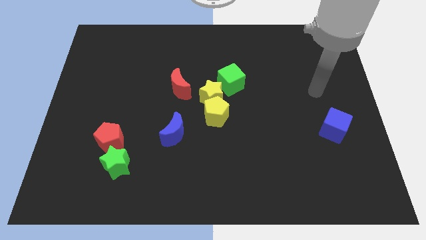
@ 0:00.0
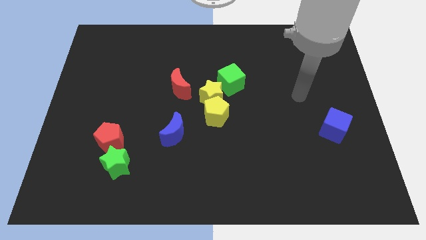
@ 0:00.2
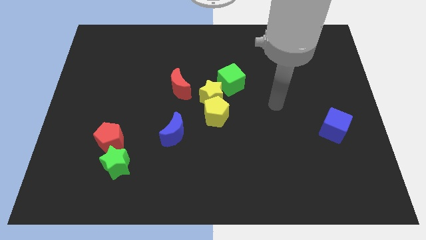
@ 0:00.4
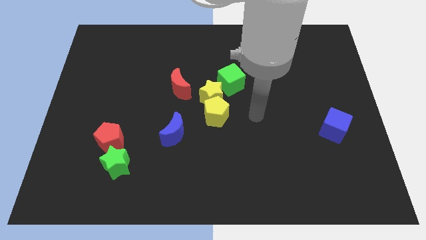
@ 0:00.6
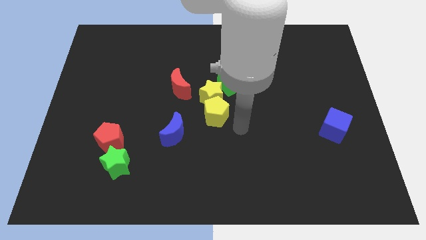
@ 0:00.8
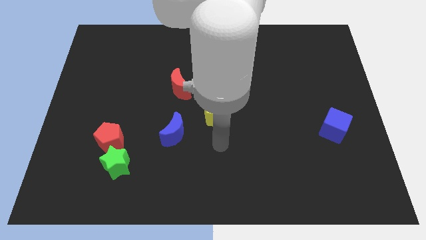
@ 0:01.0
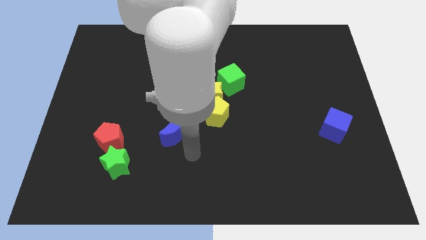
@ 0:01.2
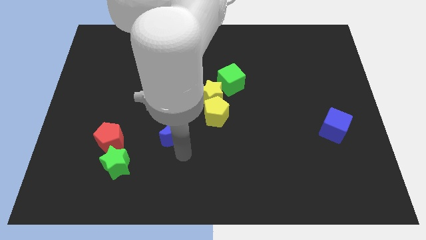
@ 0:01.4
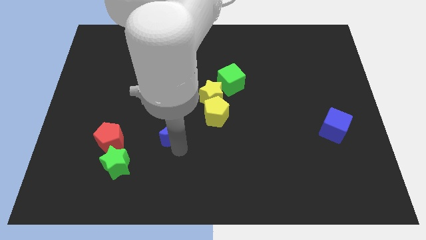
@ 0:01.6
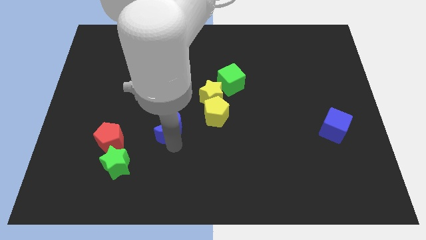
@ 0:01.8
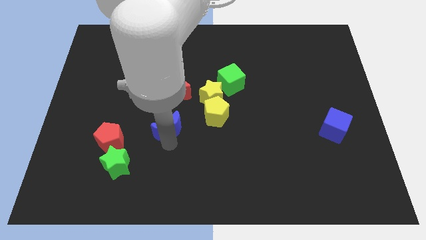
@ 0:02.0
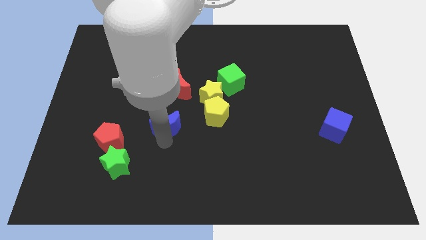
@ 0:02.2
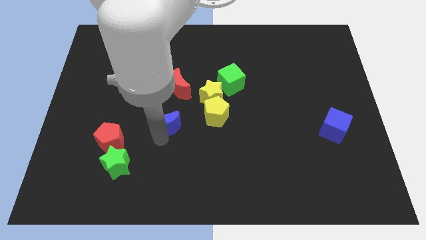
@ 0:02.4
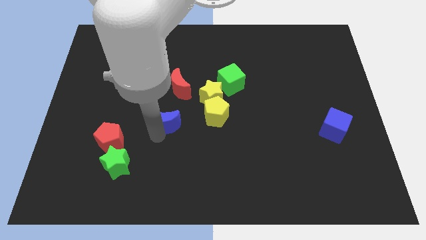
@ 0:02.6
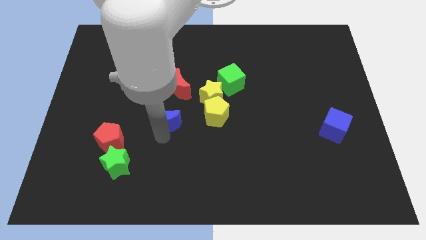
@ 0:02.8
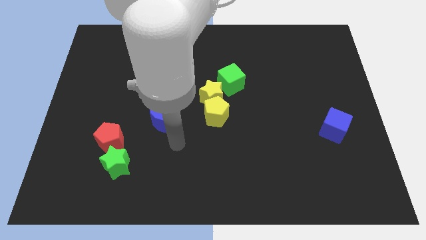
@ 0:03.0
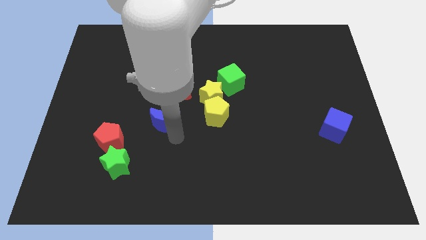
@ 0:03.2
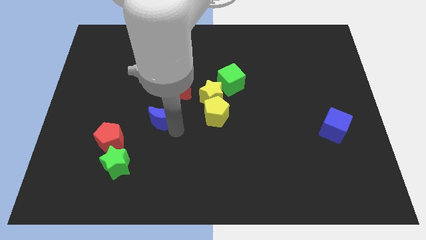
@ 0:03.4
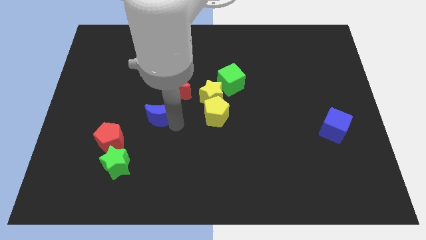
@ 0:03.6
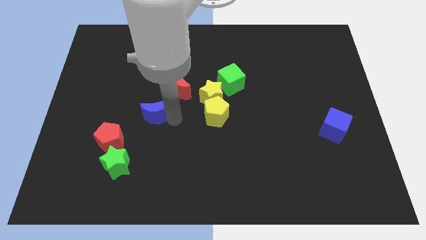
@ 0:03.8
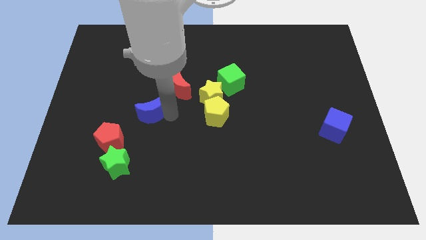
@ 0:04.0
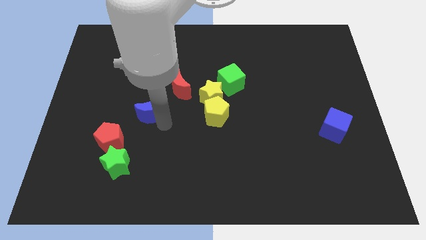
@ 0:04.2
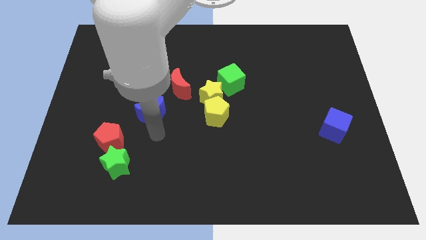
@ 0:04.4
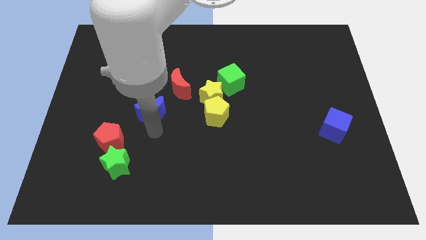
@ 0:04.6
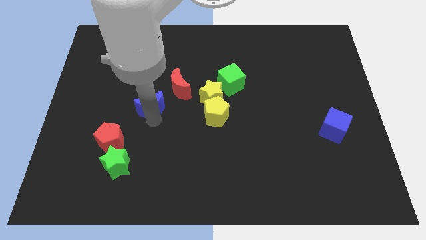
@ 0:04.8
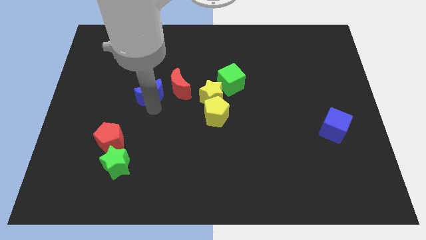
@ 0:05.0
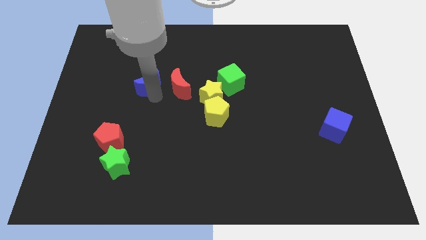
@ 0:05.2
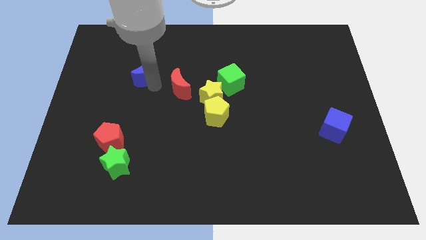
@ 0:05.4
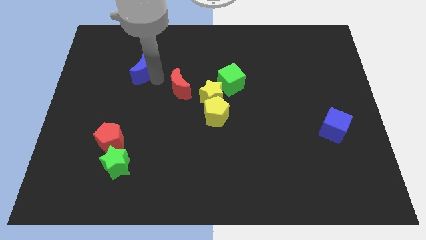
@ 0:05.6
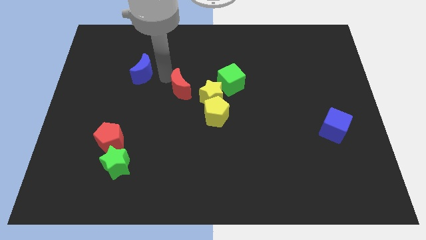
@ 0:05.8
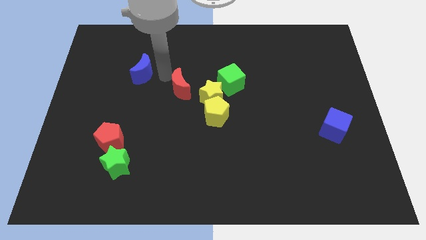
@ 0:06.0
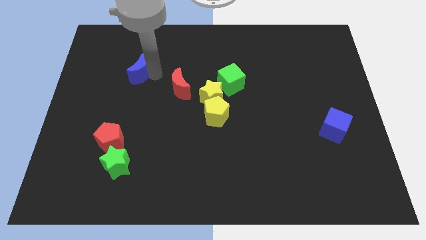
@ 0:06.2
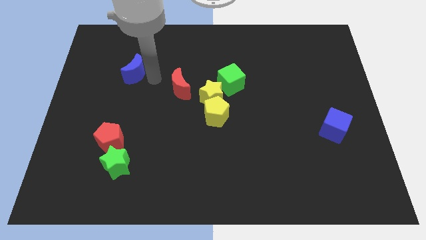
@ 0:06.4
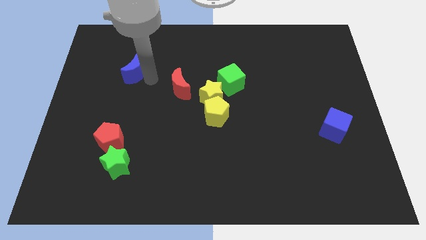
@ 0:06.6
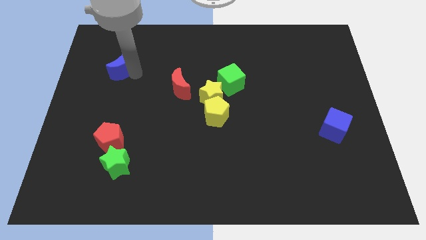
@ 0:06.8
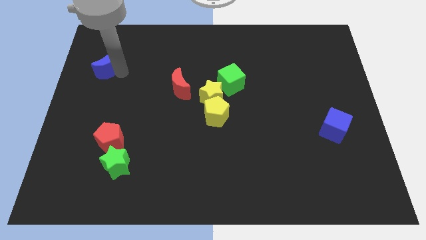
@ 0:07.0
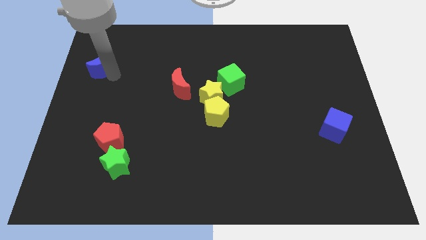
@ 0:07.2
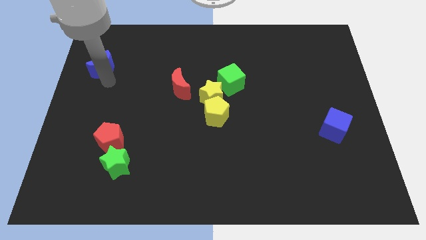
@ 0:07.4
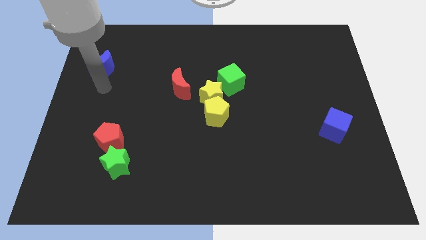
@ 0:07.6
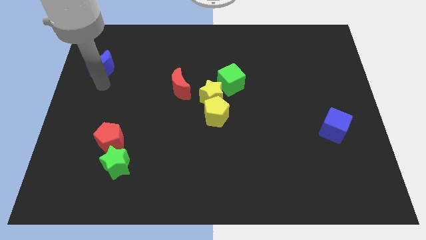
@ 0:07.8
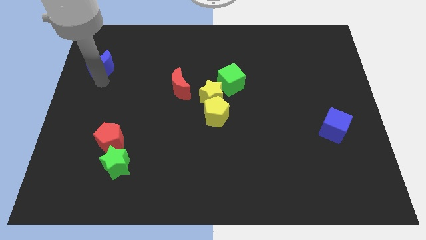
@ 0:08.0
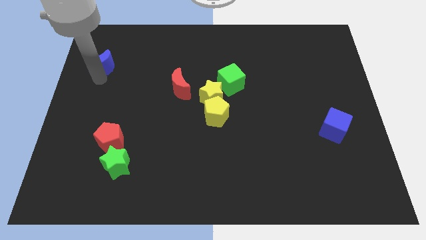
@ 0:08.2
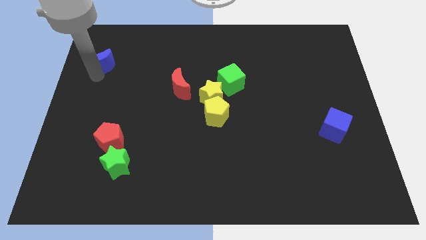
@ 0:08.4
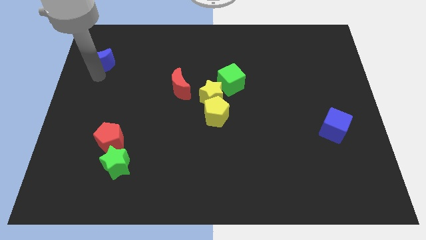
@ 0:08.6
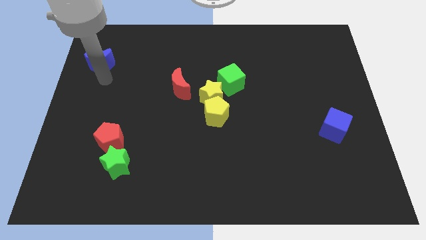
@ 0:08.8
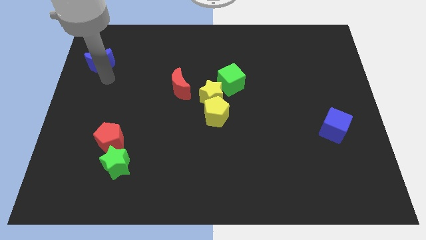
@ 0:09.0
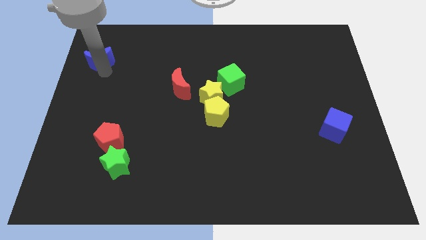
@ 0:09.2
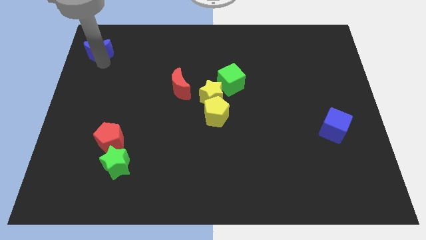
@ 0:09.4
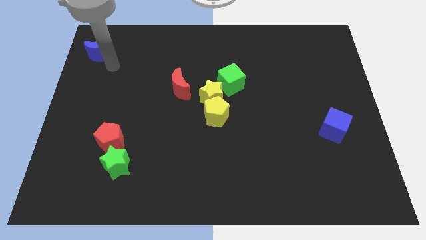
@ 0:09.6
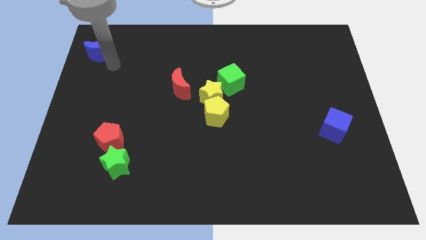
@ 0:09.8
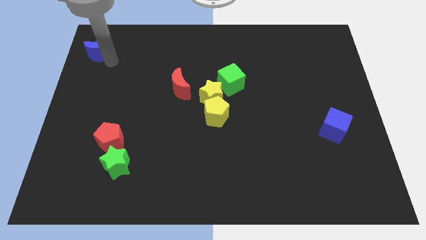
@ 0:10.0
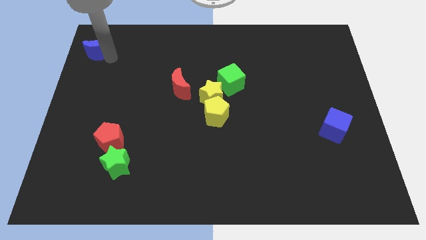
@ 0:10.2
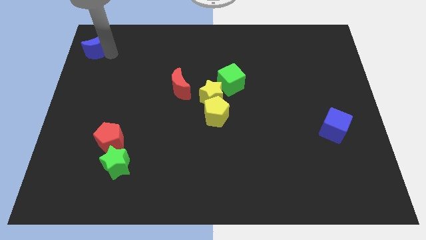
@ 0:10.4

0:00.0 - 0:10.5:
put the blue moon to the upper left corner

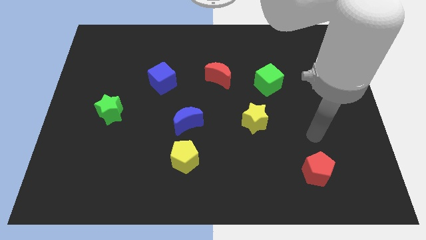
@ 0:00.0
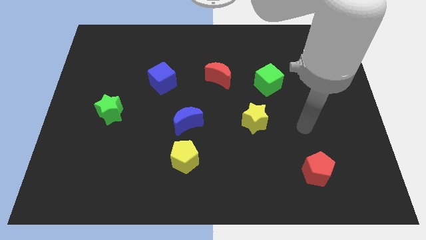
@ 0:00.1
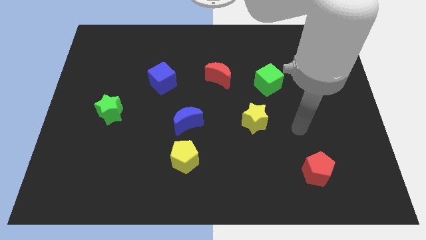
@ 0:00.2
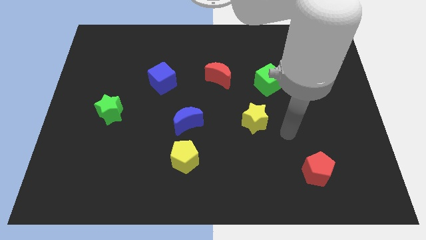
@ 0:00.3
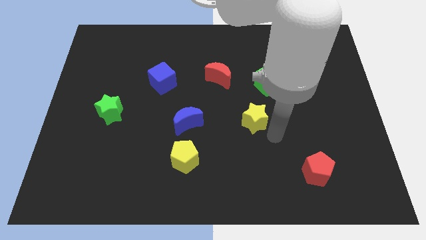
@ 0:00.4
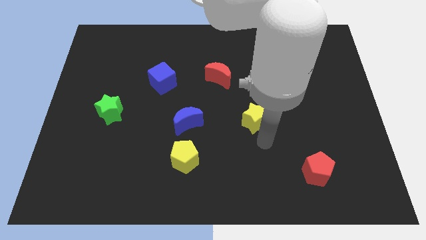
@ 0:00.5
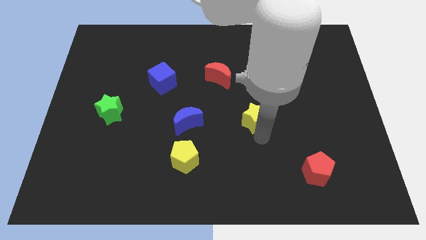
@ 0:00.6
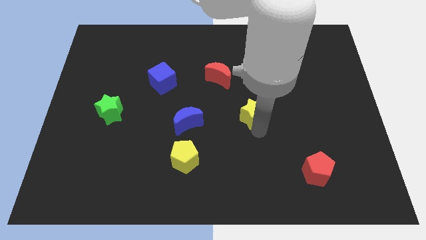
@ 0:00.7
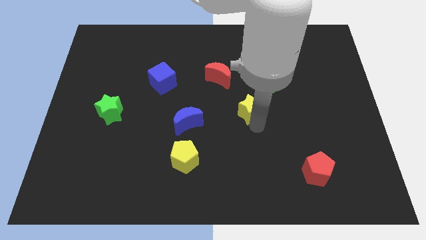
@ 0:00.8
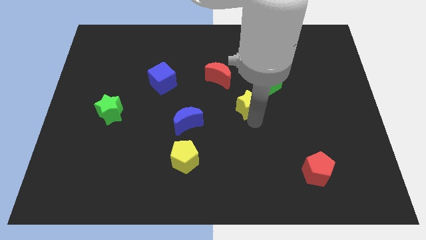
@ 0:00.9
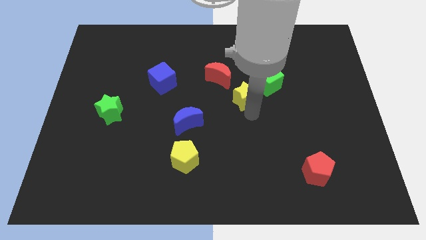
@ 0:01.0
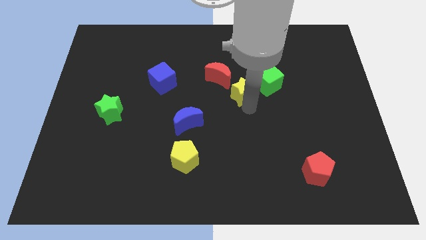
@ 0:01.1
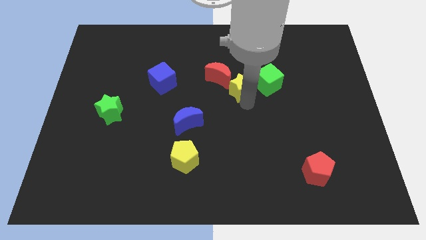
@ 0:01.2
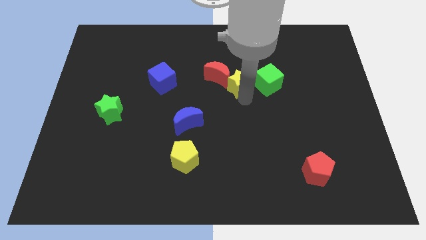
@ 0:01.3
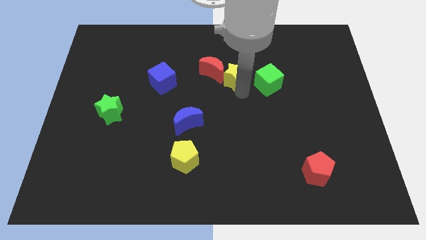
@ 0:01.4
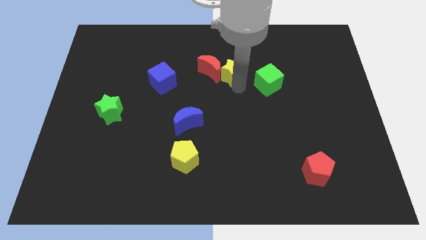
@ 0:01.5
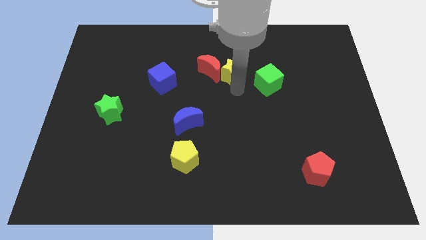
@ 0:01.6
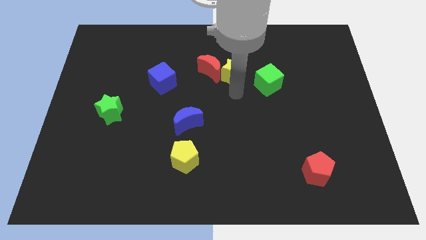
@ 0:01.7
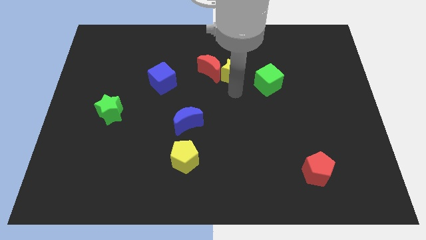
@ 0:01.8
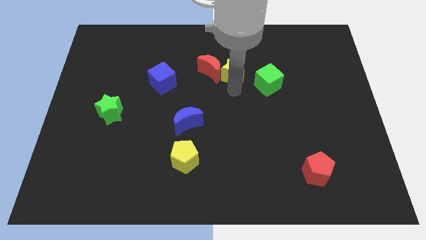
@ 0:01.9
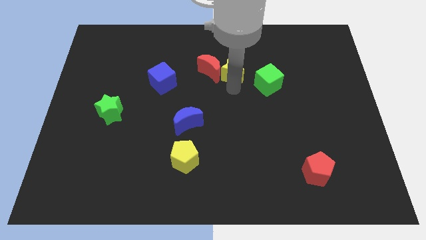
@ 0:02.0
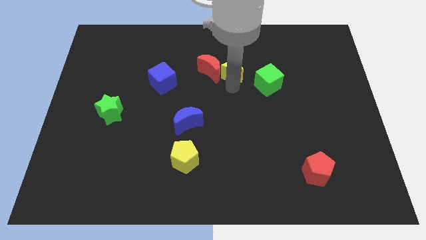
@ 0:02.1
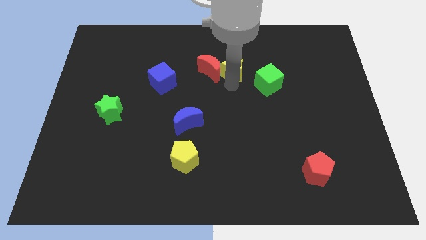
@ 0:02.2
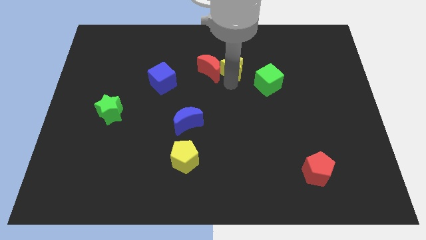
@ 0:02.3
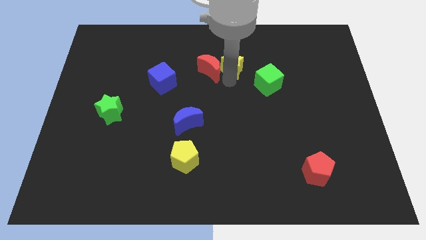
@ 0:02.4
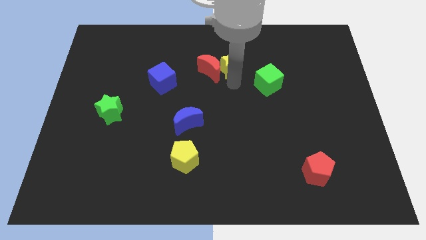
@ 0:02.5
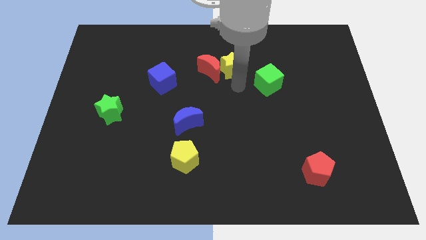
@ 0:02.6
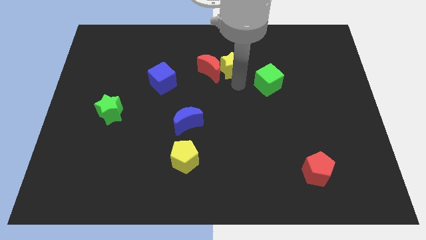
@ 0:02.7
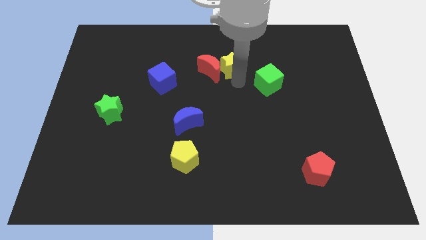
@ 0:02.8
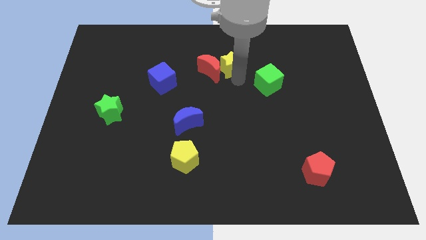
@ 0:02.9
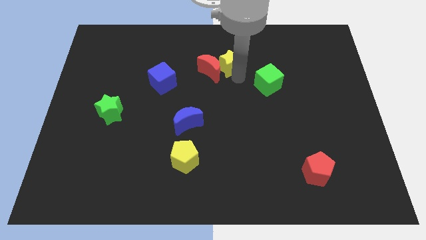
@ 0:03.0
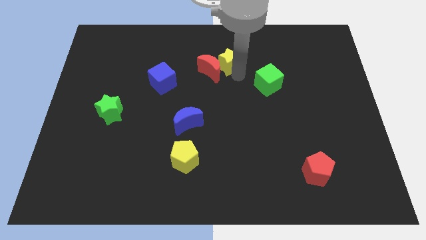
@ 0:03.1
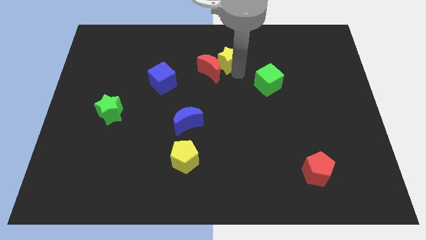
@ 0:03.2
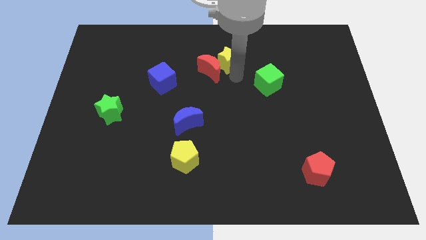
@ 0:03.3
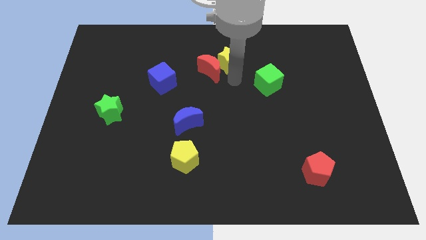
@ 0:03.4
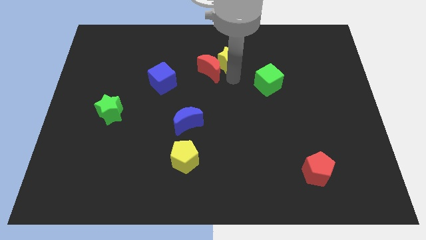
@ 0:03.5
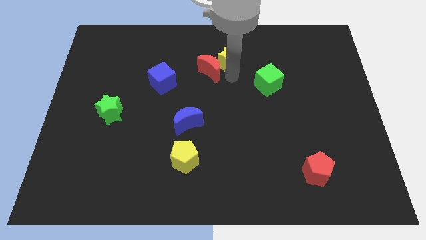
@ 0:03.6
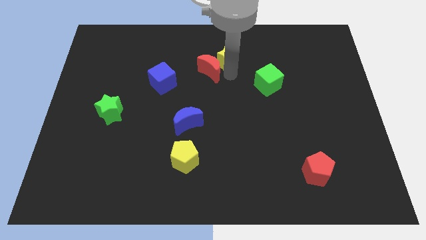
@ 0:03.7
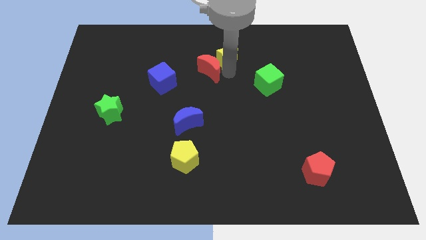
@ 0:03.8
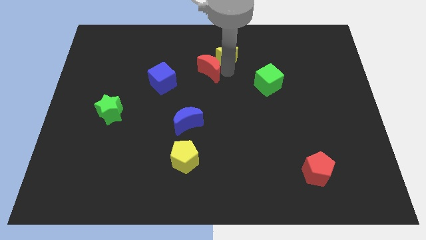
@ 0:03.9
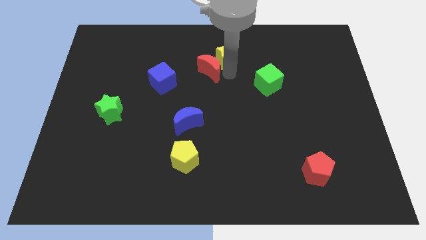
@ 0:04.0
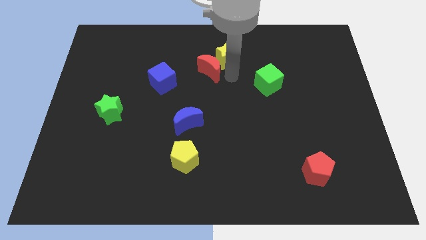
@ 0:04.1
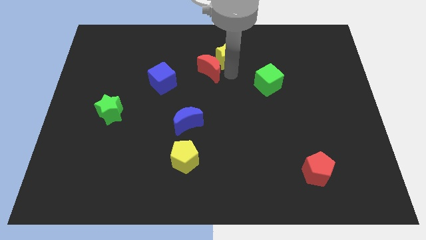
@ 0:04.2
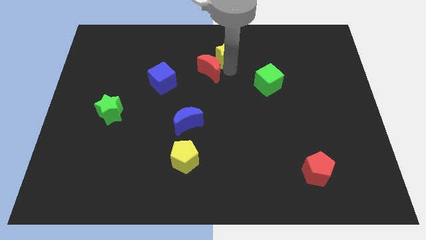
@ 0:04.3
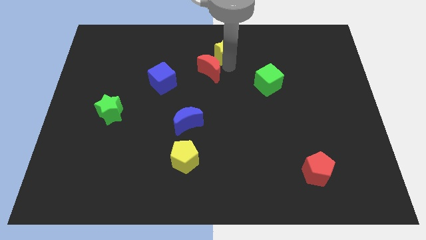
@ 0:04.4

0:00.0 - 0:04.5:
move the yellow star to the top
